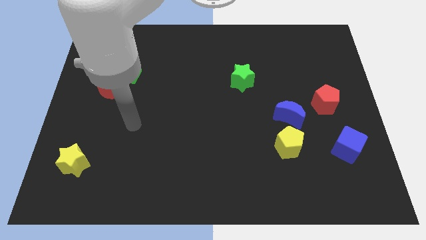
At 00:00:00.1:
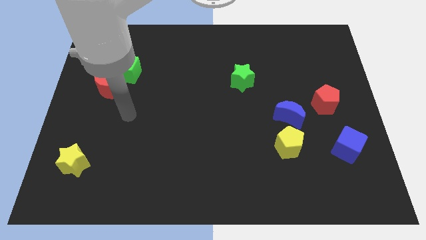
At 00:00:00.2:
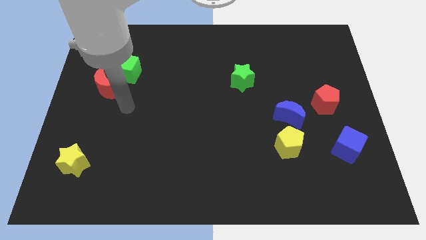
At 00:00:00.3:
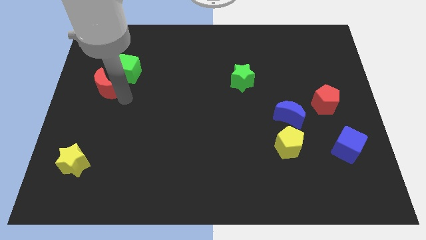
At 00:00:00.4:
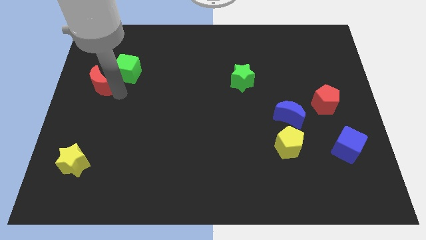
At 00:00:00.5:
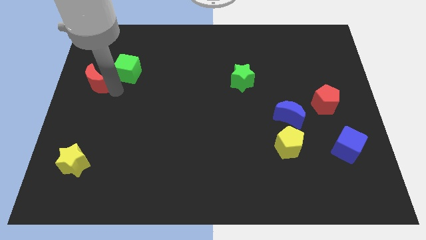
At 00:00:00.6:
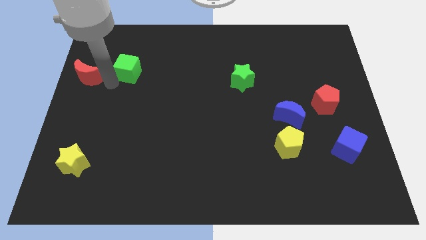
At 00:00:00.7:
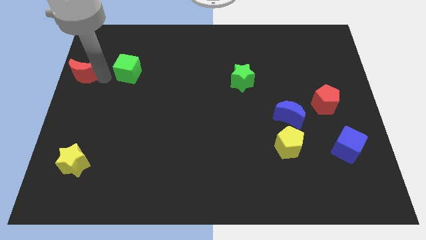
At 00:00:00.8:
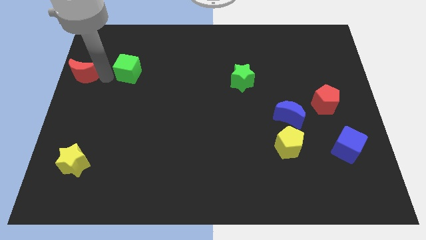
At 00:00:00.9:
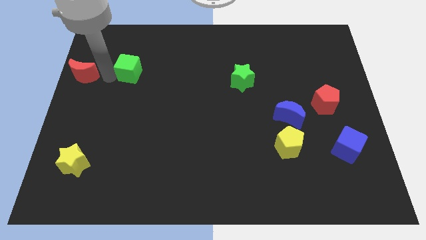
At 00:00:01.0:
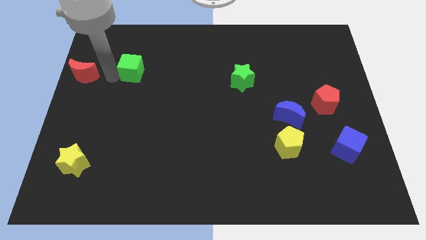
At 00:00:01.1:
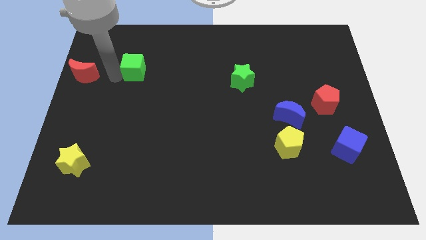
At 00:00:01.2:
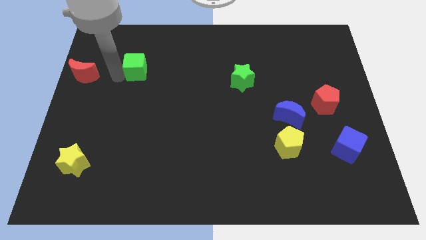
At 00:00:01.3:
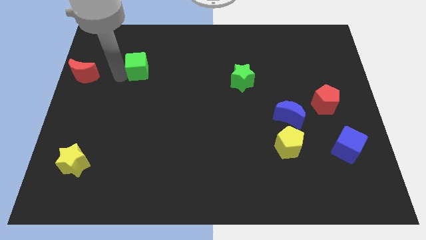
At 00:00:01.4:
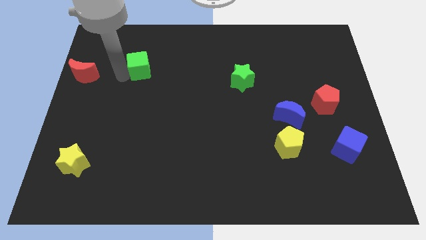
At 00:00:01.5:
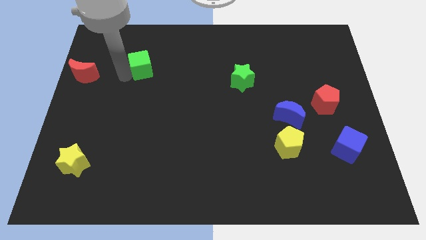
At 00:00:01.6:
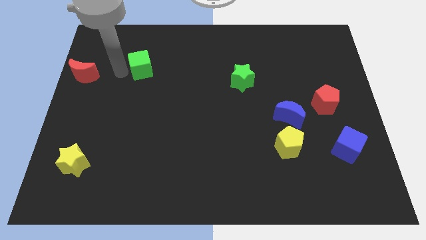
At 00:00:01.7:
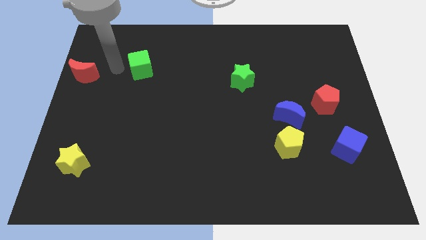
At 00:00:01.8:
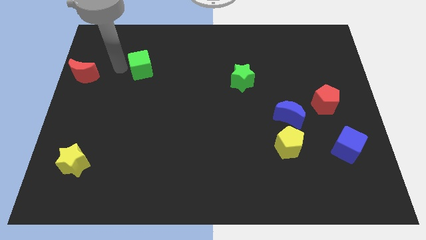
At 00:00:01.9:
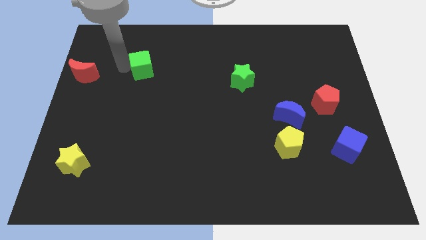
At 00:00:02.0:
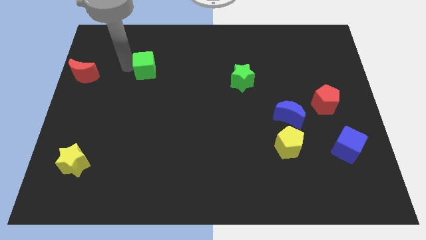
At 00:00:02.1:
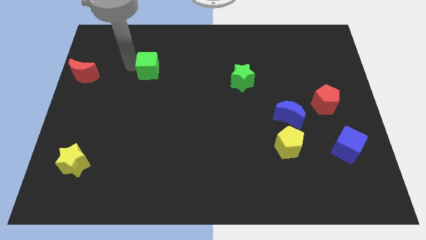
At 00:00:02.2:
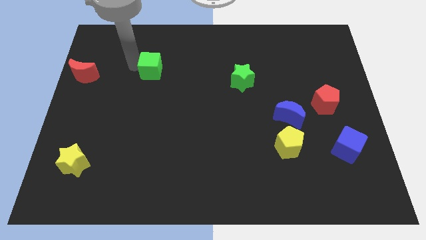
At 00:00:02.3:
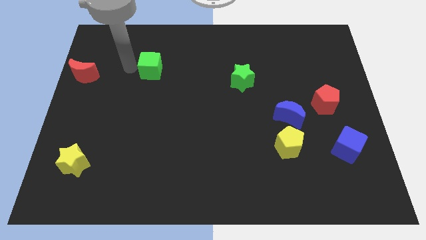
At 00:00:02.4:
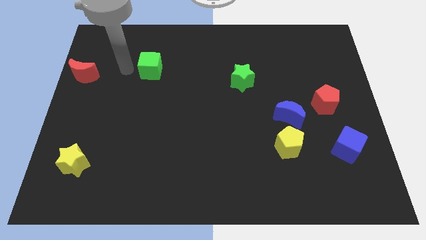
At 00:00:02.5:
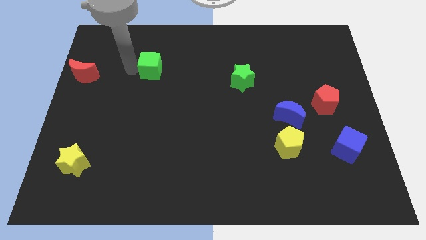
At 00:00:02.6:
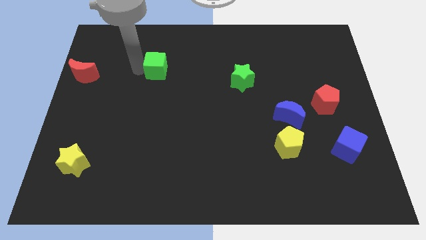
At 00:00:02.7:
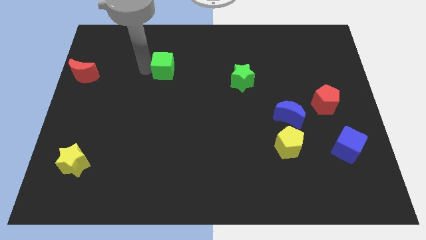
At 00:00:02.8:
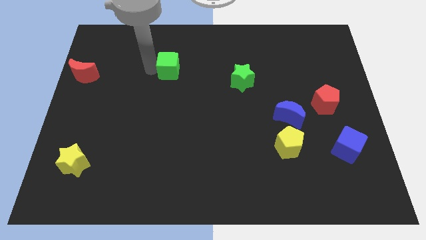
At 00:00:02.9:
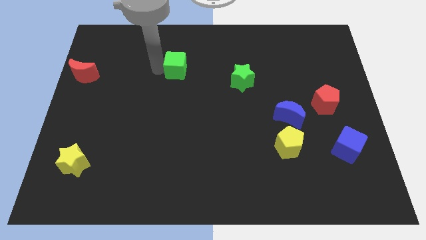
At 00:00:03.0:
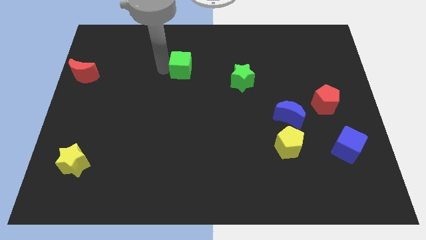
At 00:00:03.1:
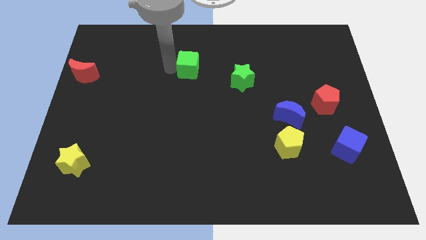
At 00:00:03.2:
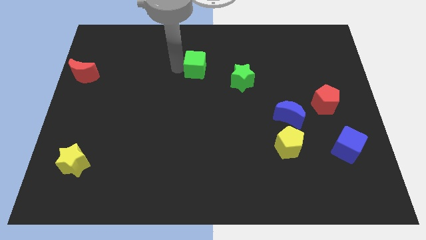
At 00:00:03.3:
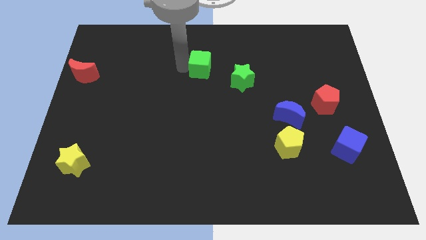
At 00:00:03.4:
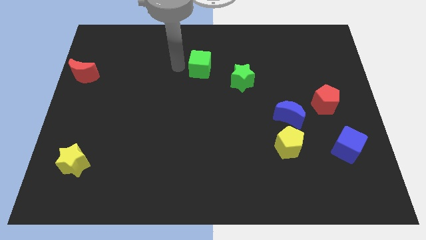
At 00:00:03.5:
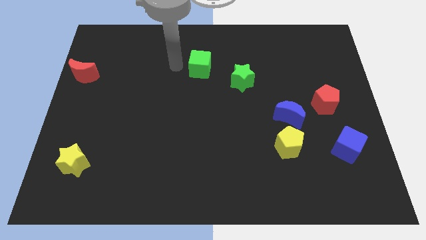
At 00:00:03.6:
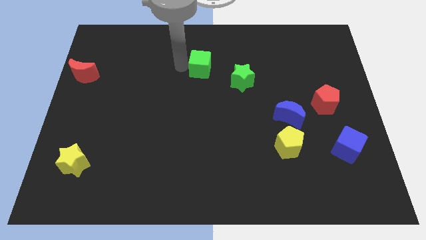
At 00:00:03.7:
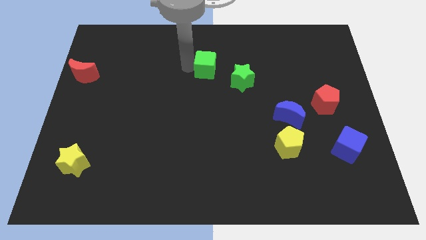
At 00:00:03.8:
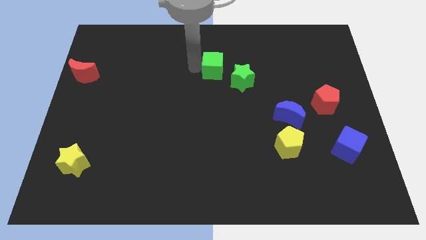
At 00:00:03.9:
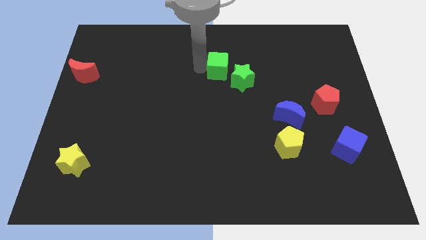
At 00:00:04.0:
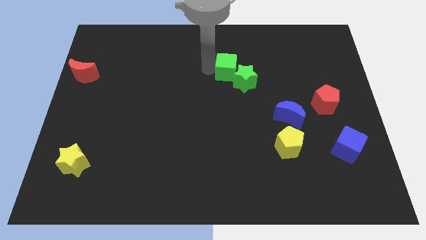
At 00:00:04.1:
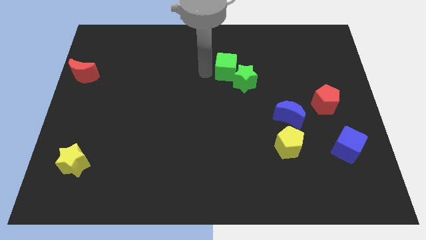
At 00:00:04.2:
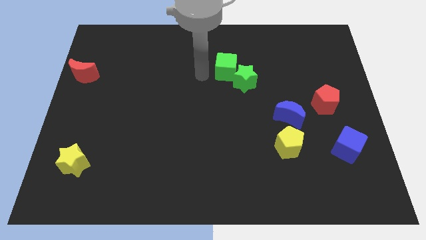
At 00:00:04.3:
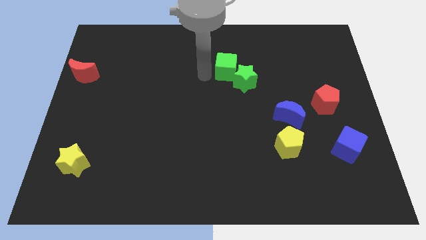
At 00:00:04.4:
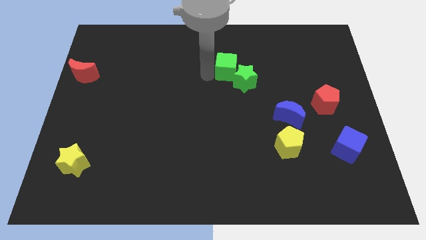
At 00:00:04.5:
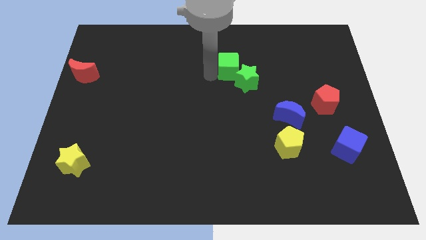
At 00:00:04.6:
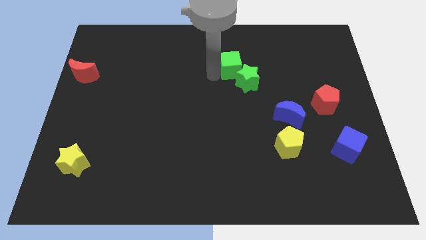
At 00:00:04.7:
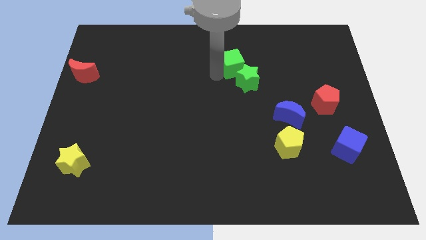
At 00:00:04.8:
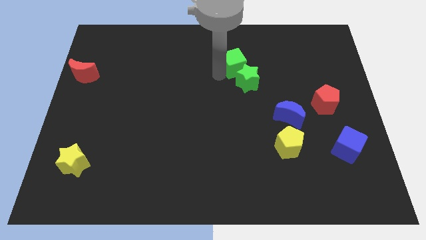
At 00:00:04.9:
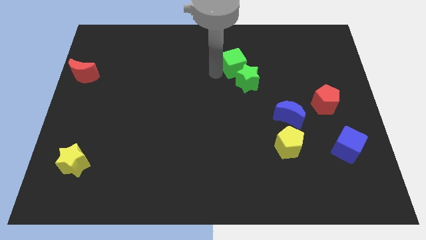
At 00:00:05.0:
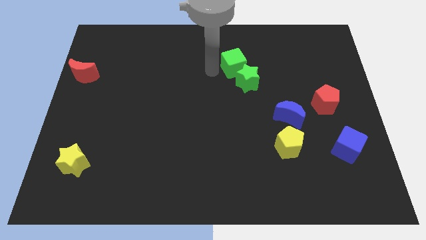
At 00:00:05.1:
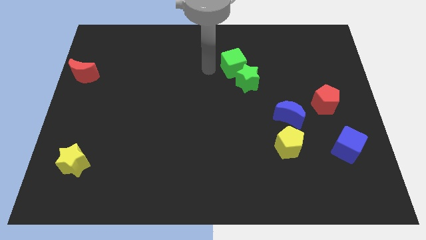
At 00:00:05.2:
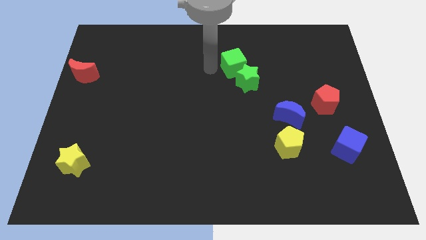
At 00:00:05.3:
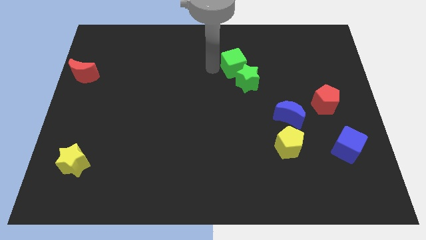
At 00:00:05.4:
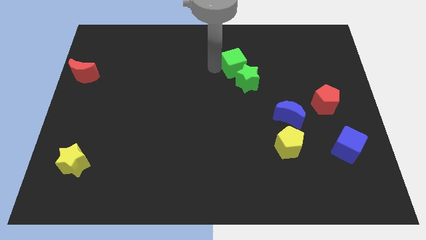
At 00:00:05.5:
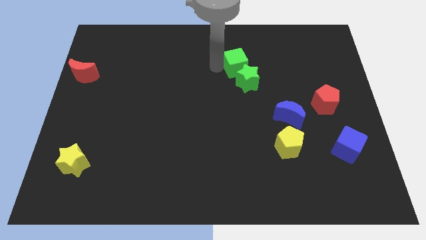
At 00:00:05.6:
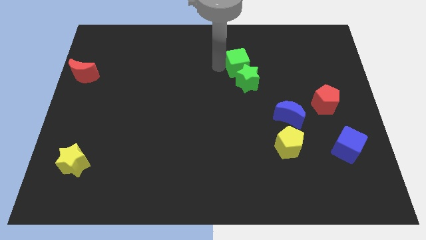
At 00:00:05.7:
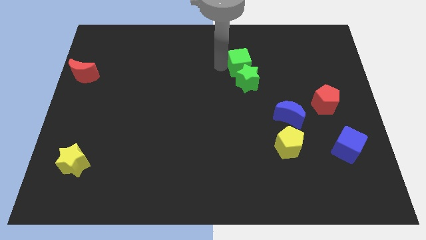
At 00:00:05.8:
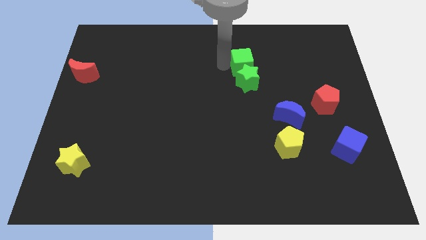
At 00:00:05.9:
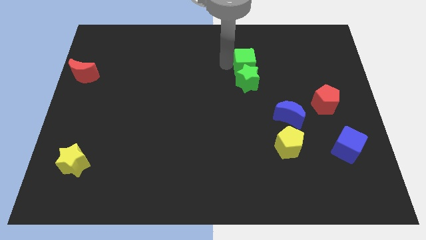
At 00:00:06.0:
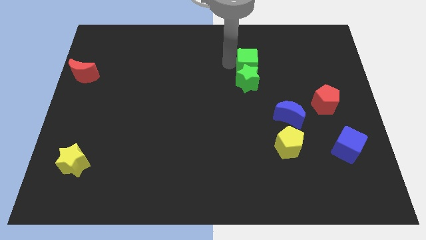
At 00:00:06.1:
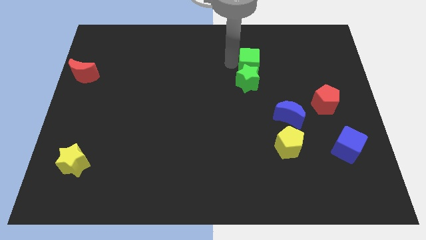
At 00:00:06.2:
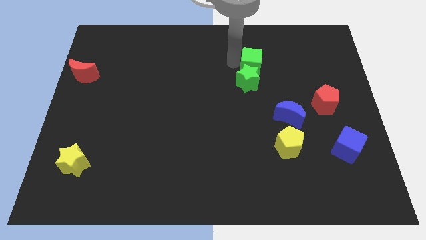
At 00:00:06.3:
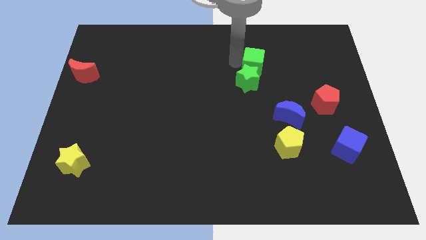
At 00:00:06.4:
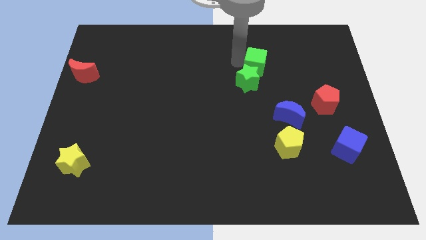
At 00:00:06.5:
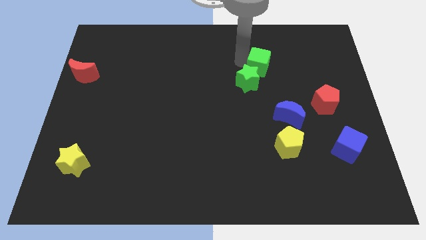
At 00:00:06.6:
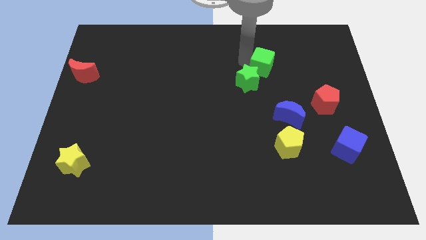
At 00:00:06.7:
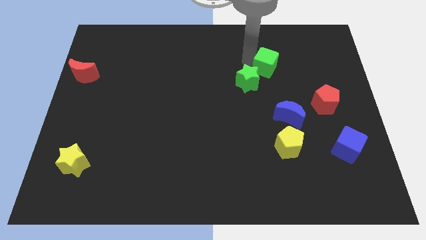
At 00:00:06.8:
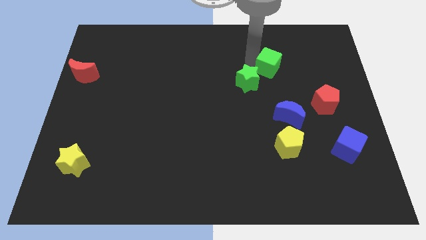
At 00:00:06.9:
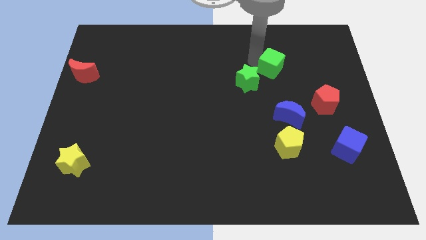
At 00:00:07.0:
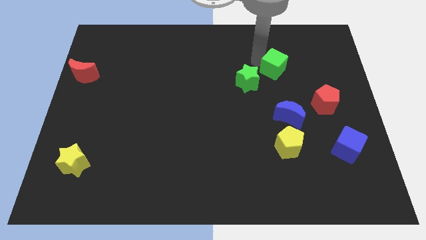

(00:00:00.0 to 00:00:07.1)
push the green cube to the top of the blue moon
